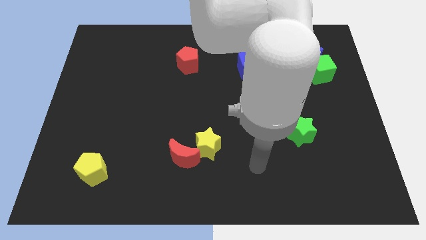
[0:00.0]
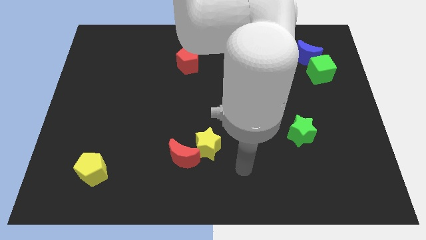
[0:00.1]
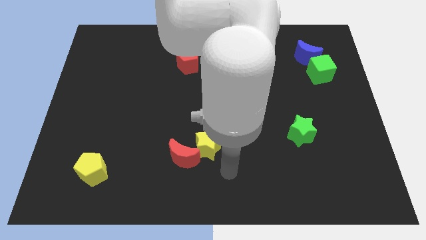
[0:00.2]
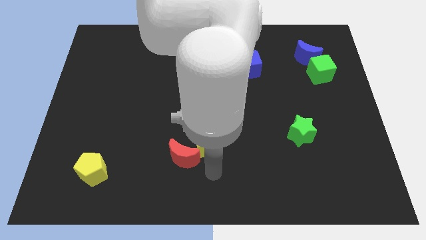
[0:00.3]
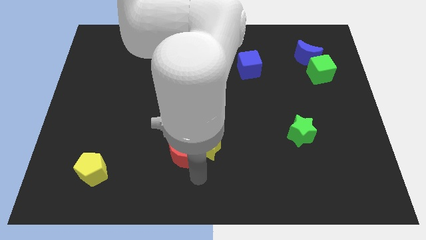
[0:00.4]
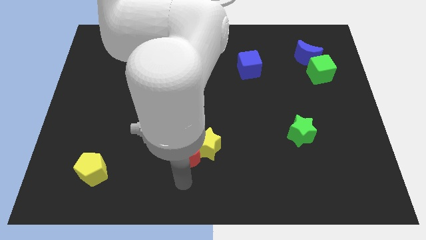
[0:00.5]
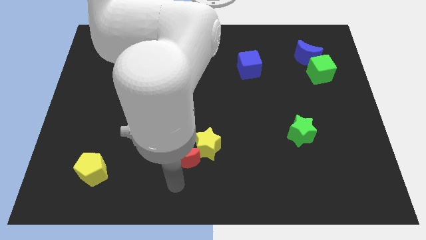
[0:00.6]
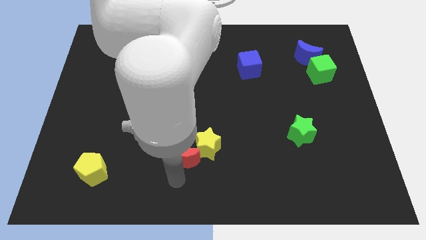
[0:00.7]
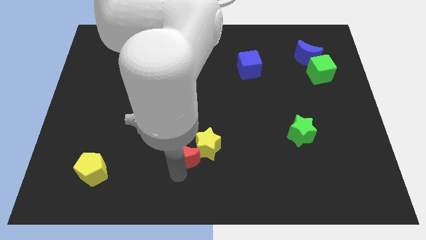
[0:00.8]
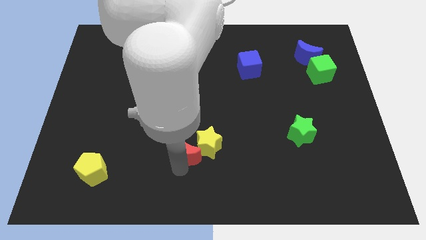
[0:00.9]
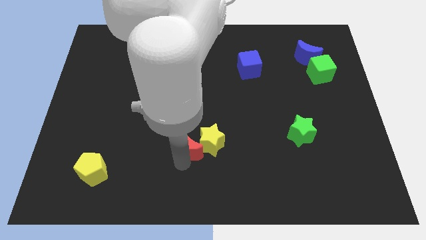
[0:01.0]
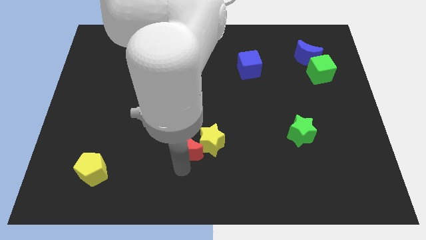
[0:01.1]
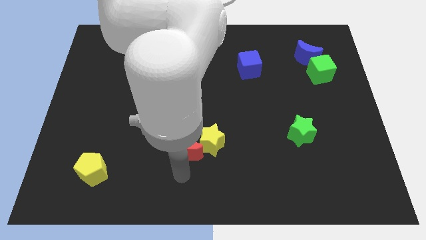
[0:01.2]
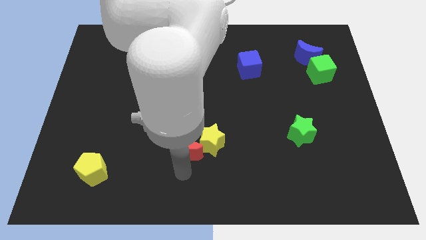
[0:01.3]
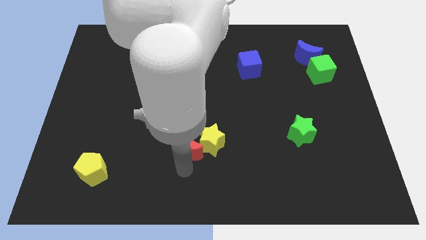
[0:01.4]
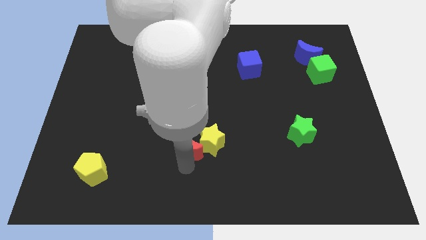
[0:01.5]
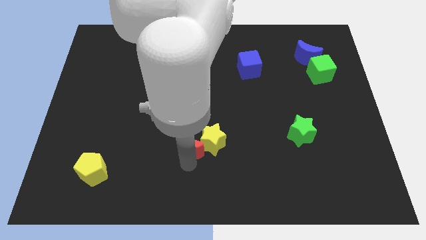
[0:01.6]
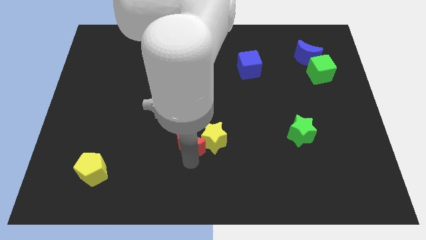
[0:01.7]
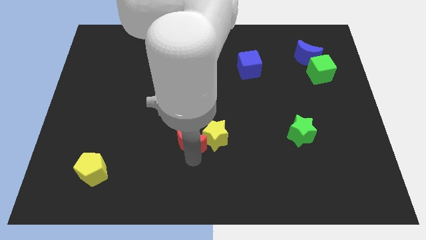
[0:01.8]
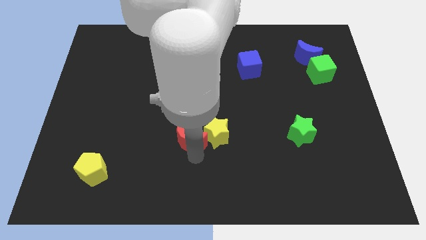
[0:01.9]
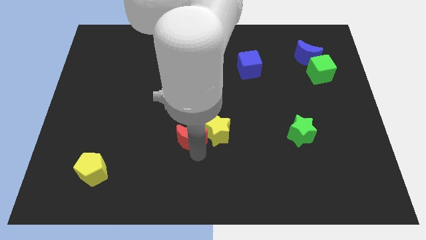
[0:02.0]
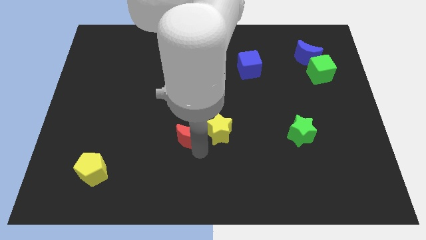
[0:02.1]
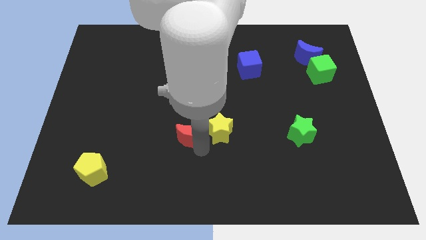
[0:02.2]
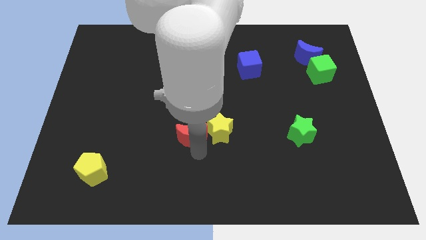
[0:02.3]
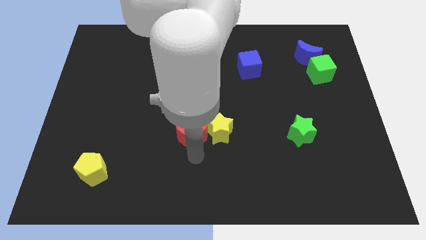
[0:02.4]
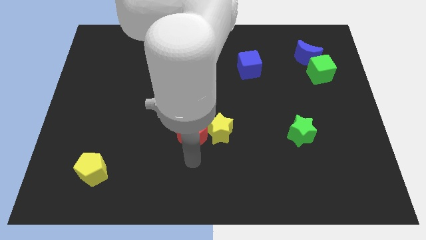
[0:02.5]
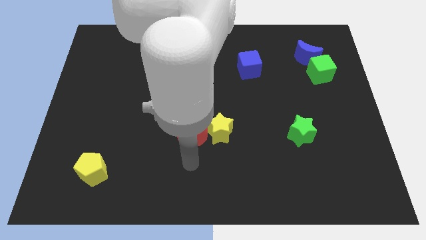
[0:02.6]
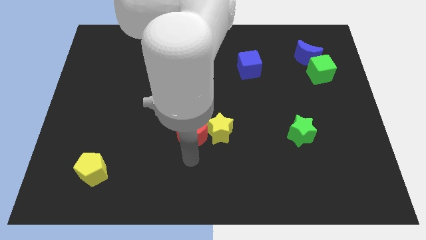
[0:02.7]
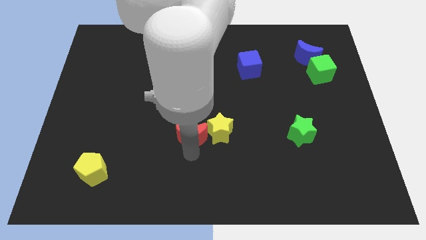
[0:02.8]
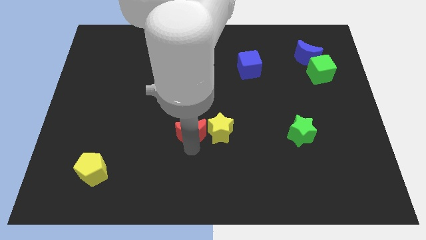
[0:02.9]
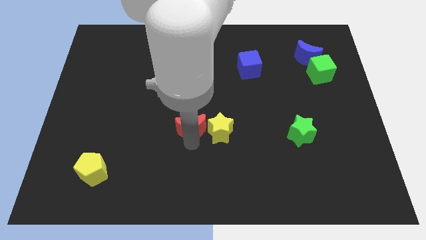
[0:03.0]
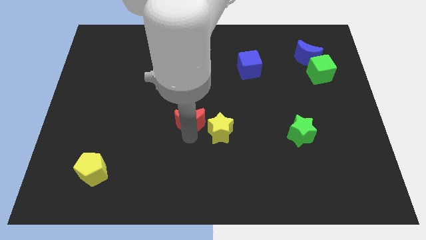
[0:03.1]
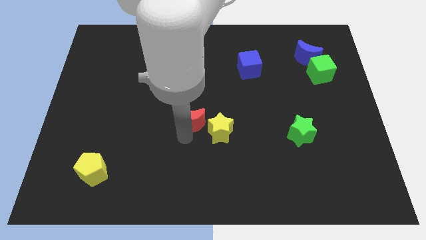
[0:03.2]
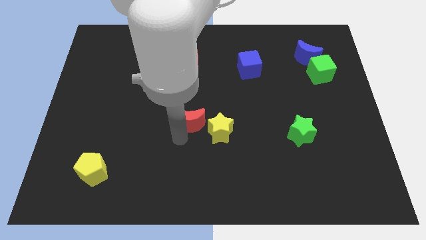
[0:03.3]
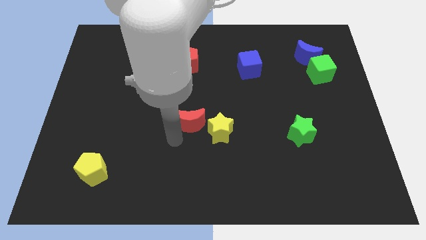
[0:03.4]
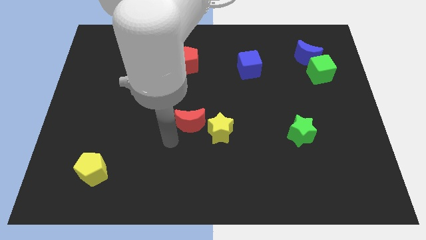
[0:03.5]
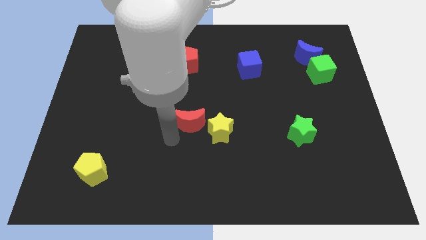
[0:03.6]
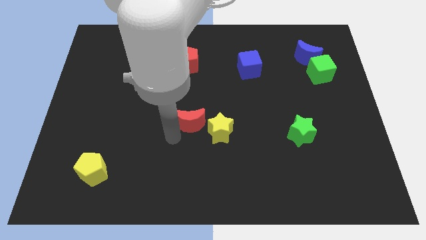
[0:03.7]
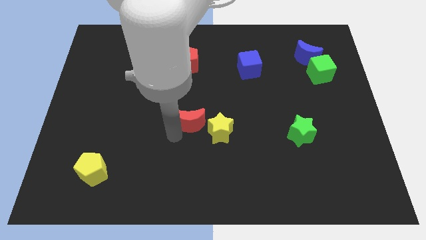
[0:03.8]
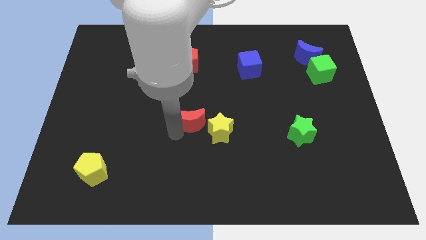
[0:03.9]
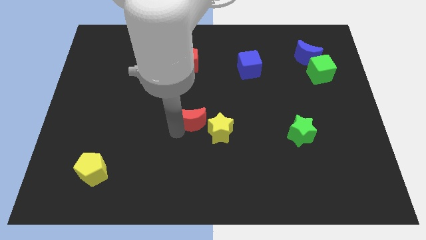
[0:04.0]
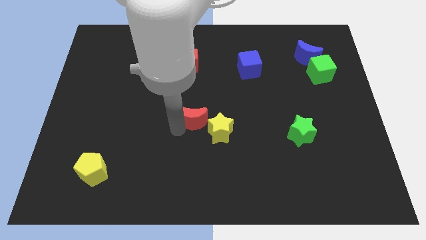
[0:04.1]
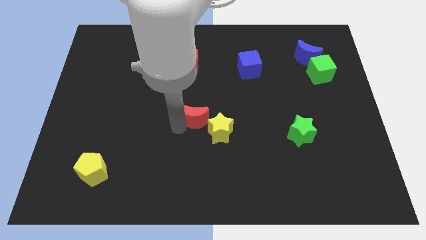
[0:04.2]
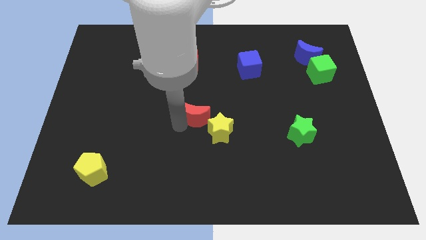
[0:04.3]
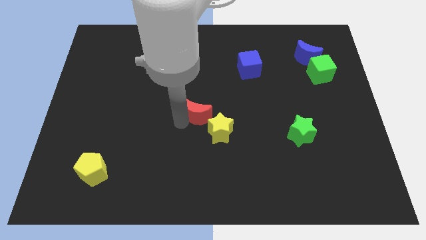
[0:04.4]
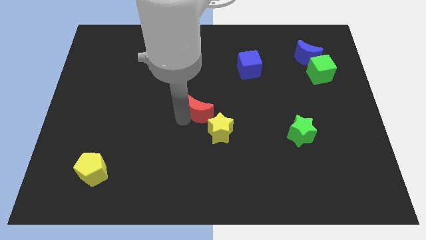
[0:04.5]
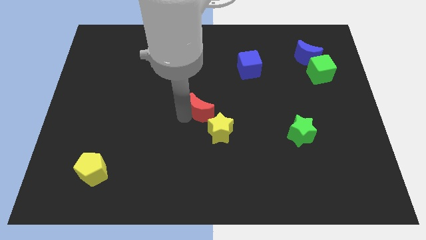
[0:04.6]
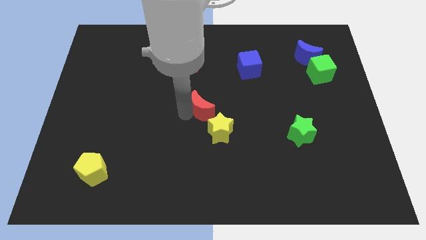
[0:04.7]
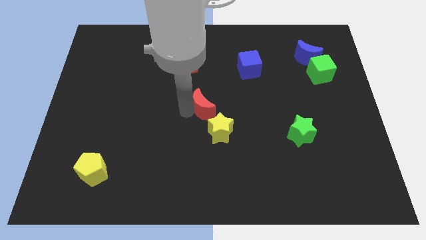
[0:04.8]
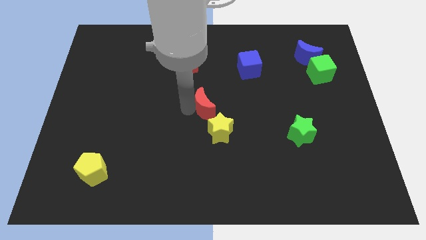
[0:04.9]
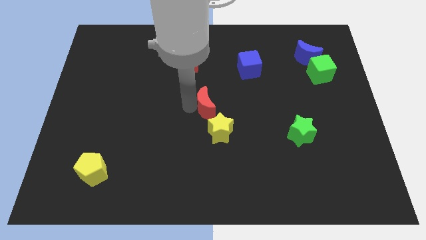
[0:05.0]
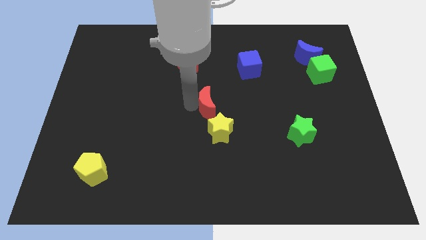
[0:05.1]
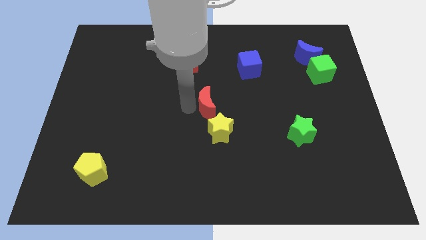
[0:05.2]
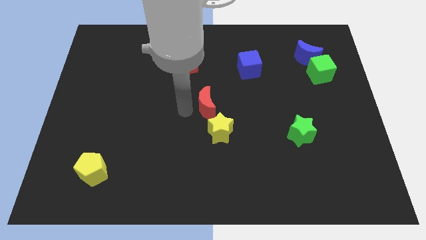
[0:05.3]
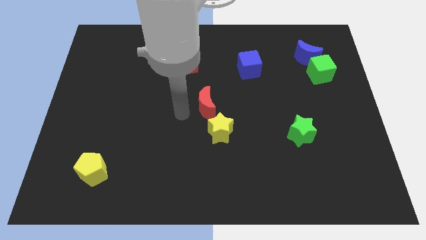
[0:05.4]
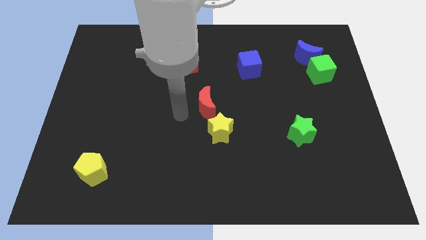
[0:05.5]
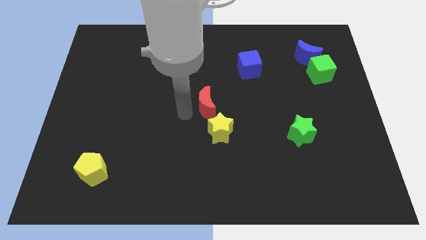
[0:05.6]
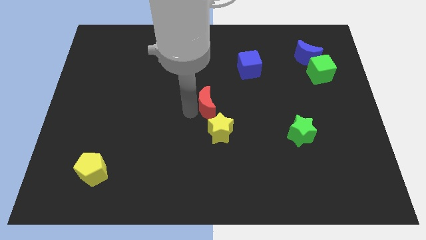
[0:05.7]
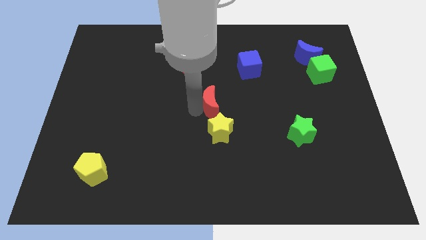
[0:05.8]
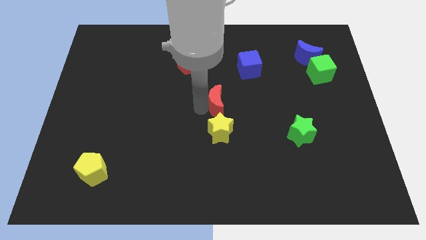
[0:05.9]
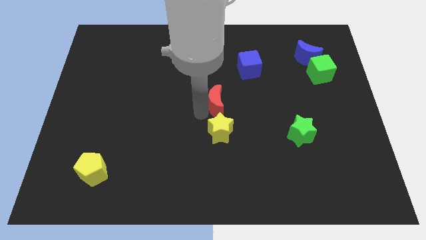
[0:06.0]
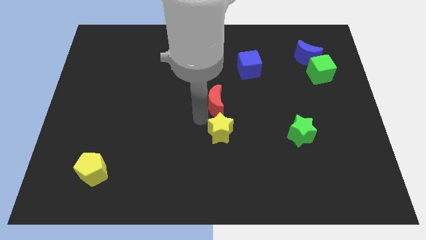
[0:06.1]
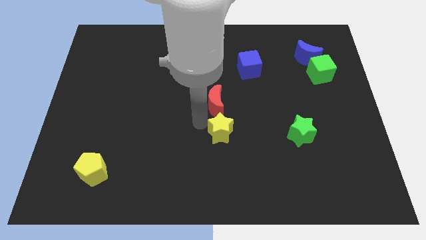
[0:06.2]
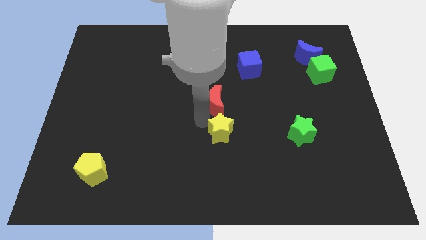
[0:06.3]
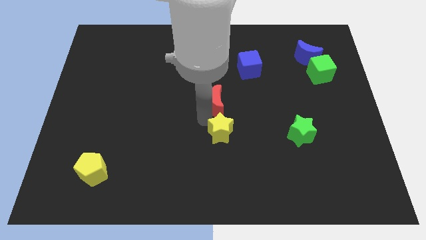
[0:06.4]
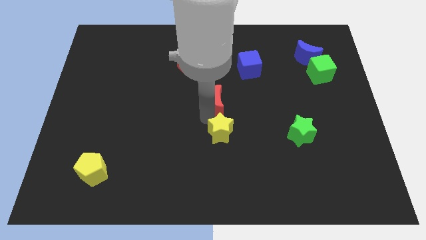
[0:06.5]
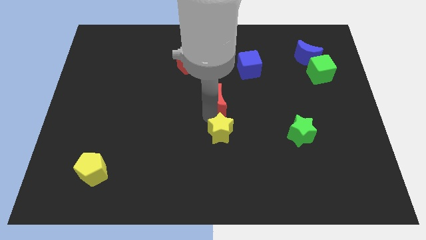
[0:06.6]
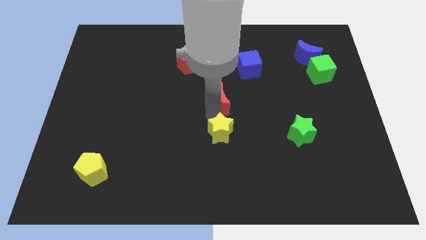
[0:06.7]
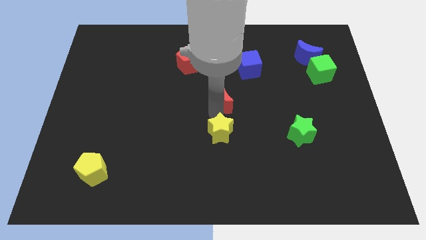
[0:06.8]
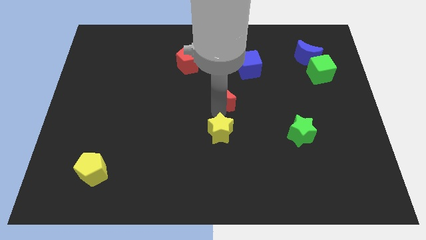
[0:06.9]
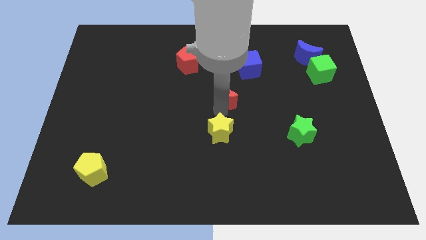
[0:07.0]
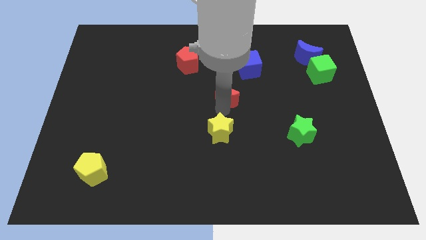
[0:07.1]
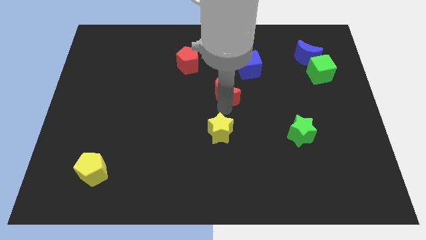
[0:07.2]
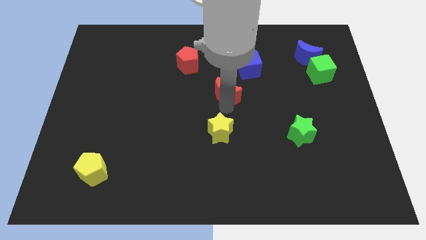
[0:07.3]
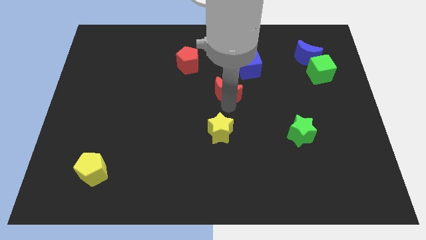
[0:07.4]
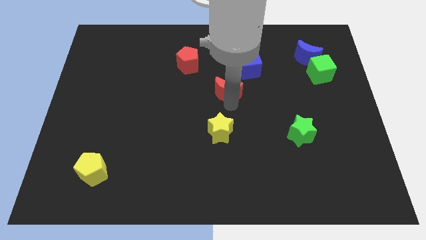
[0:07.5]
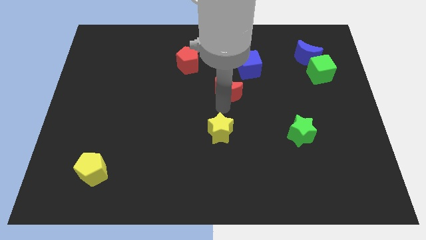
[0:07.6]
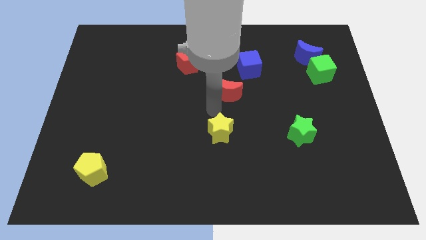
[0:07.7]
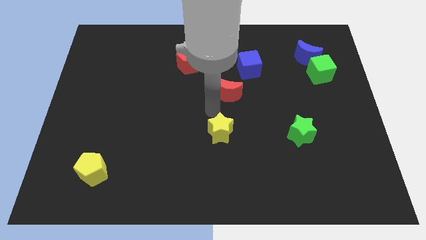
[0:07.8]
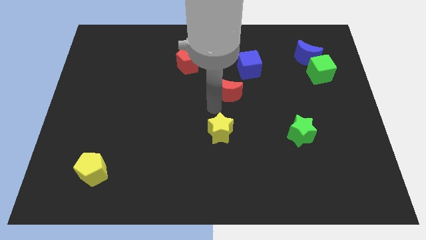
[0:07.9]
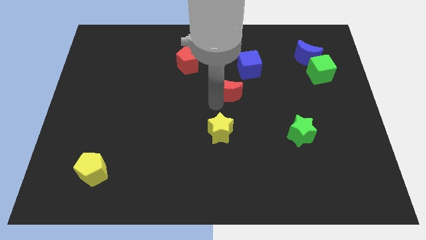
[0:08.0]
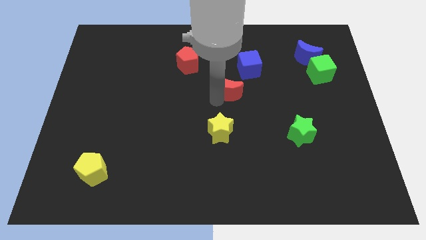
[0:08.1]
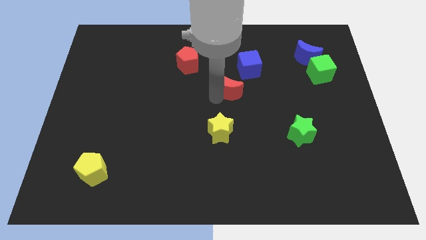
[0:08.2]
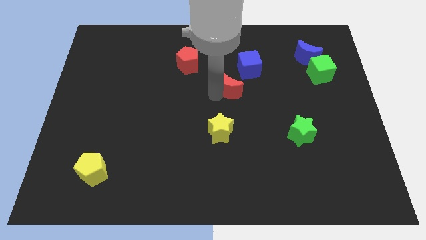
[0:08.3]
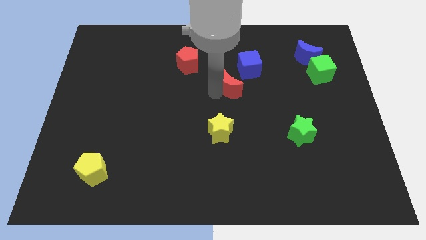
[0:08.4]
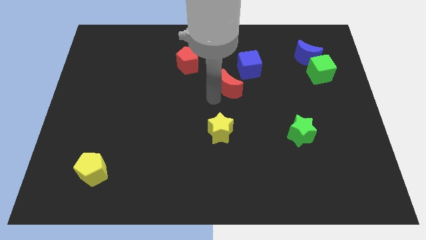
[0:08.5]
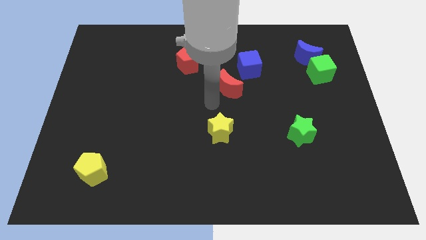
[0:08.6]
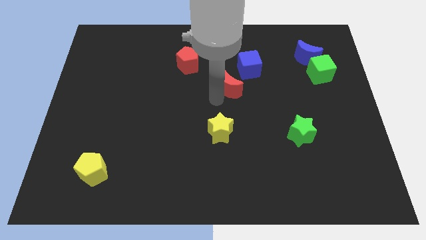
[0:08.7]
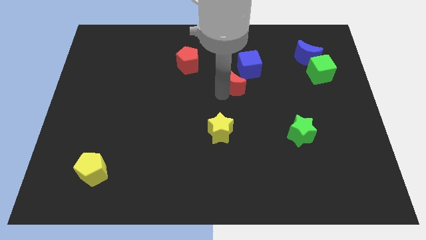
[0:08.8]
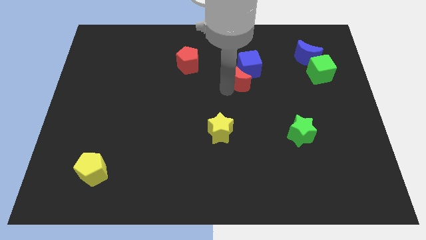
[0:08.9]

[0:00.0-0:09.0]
put the red moon next to the blue cube
